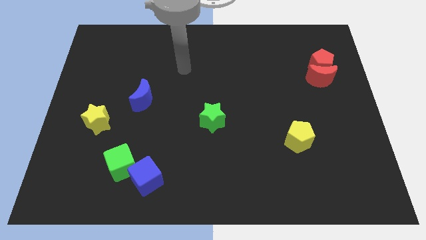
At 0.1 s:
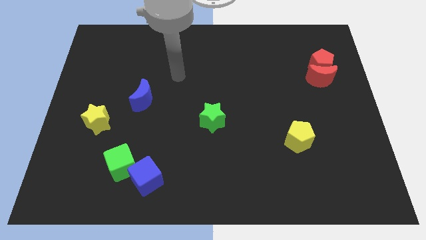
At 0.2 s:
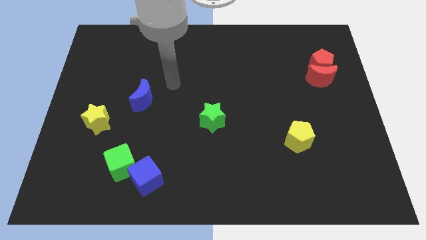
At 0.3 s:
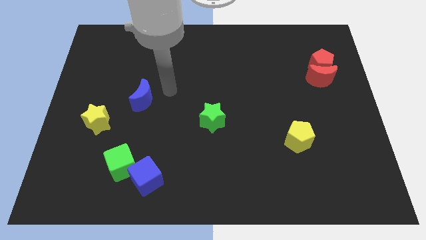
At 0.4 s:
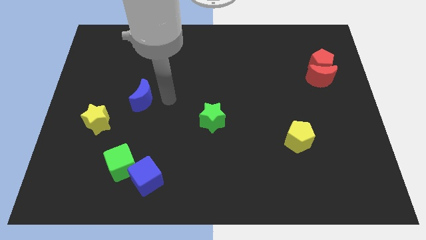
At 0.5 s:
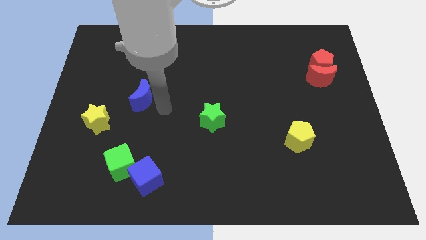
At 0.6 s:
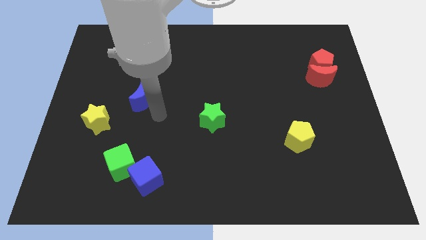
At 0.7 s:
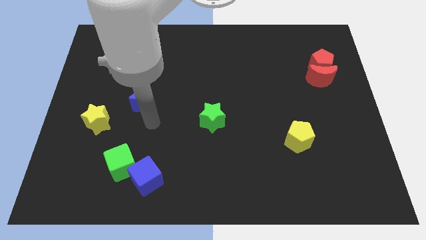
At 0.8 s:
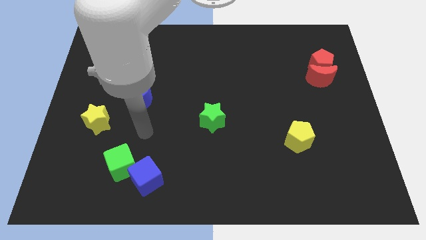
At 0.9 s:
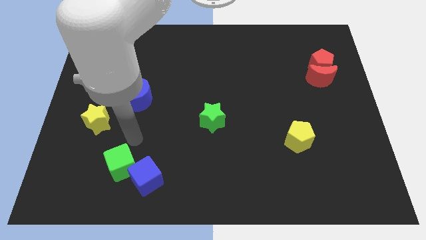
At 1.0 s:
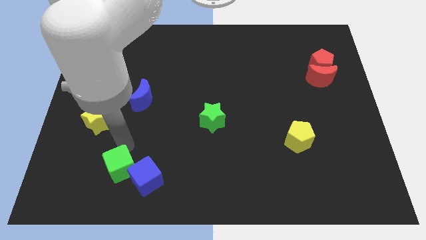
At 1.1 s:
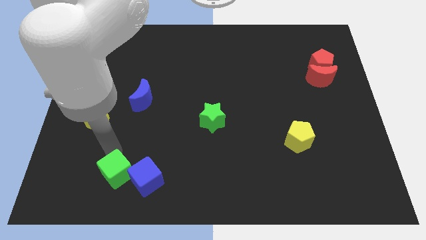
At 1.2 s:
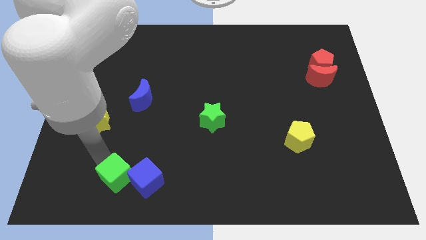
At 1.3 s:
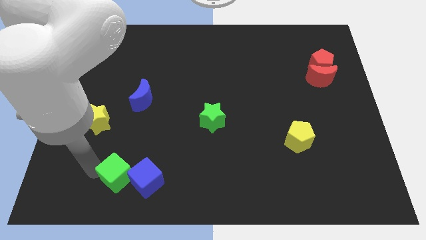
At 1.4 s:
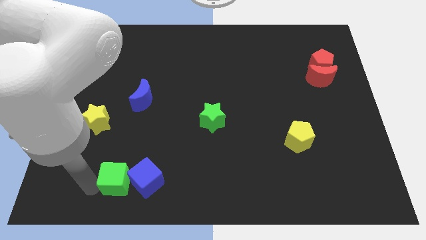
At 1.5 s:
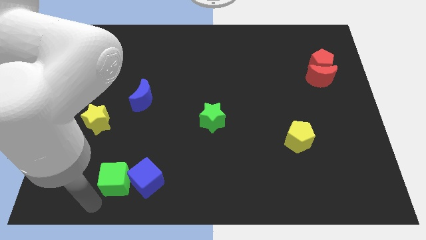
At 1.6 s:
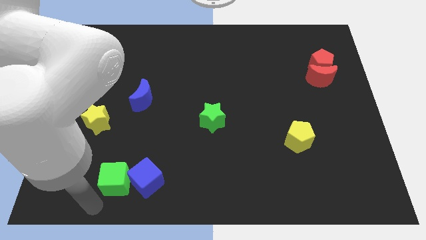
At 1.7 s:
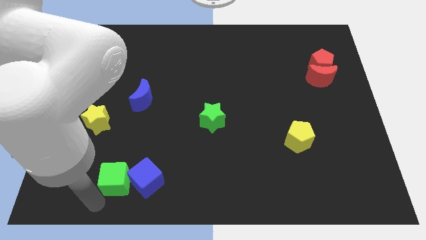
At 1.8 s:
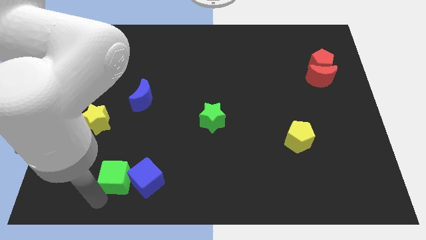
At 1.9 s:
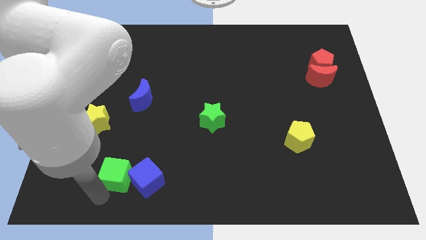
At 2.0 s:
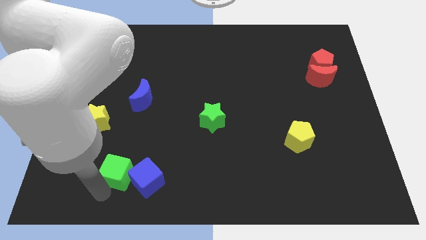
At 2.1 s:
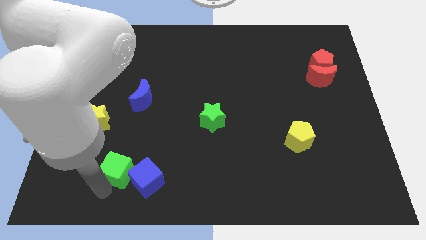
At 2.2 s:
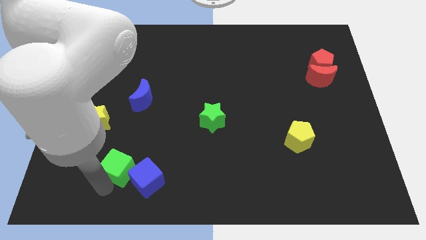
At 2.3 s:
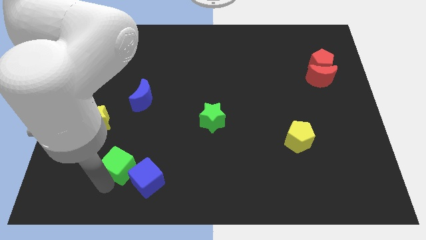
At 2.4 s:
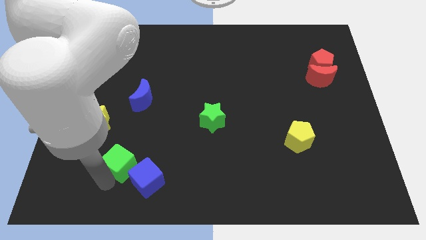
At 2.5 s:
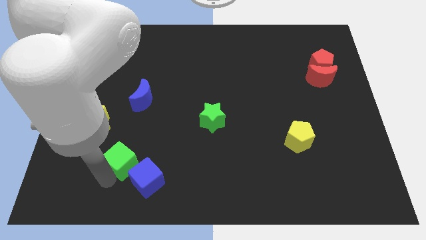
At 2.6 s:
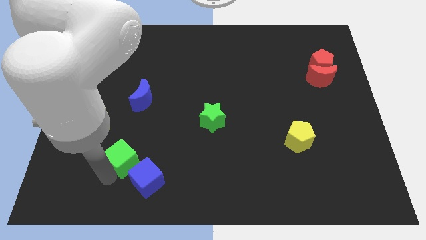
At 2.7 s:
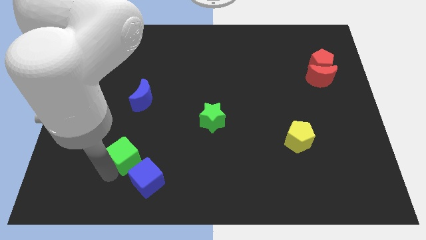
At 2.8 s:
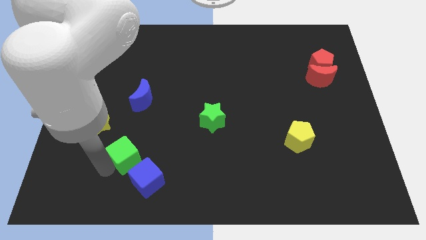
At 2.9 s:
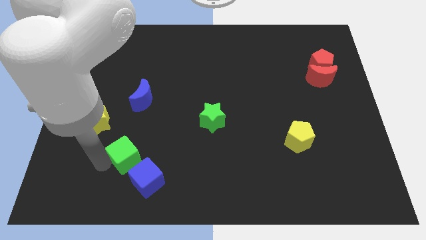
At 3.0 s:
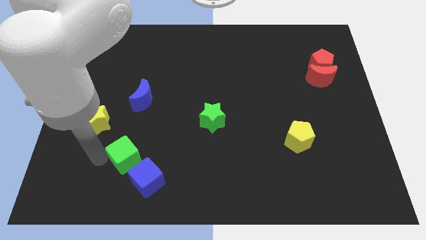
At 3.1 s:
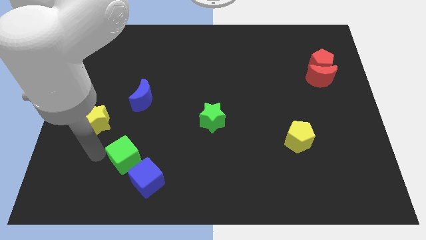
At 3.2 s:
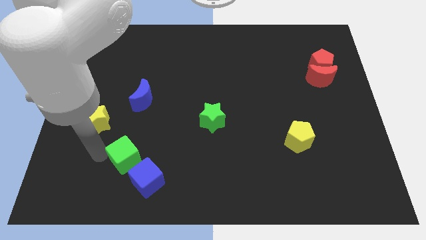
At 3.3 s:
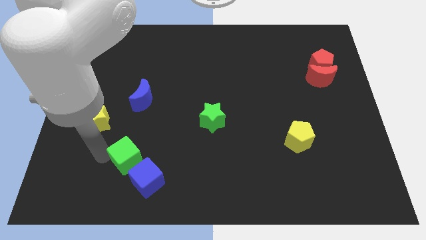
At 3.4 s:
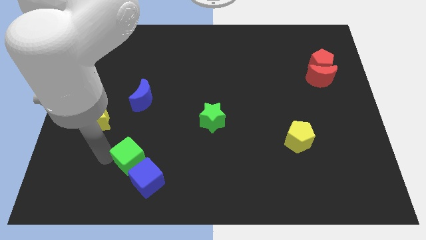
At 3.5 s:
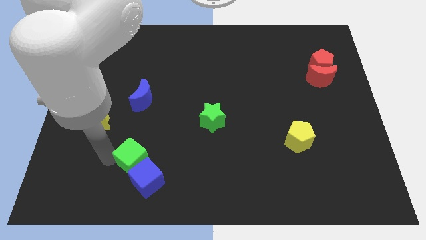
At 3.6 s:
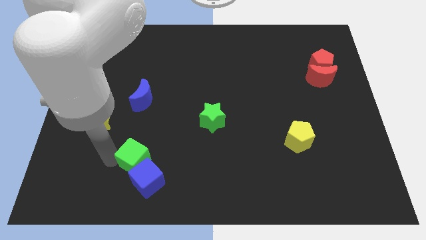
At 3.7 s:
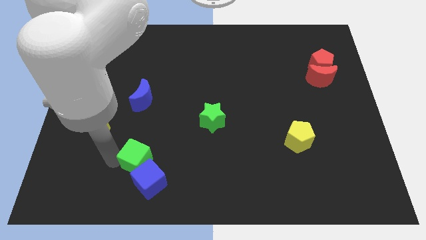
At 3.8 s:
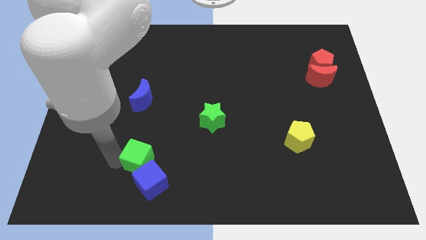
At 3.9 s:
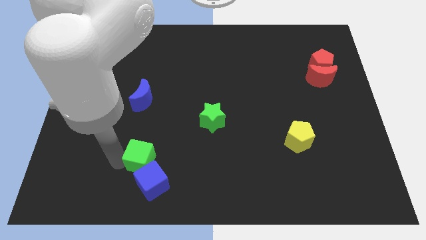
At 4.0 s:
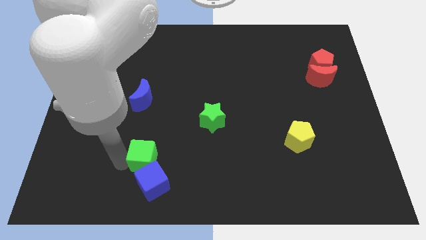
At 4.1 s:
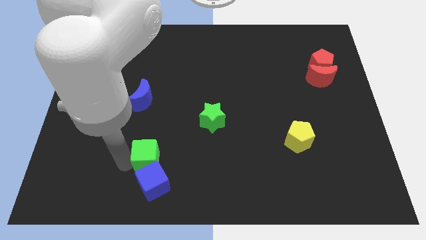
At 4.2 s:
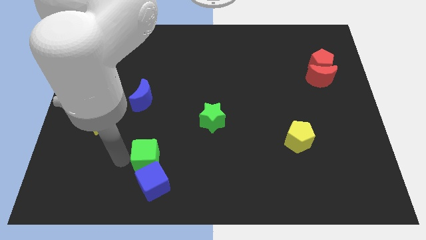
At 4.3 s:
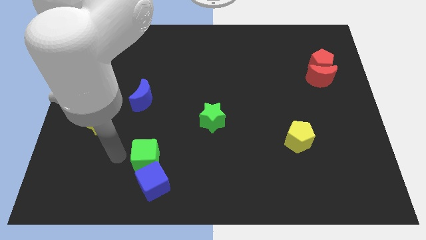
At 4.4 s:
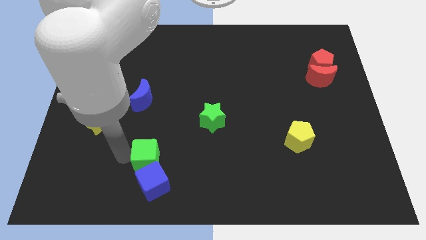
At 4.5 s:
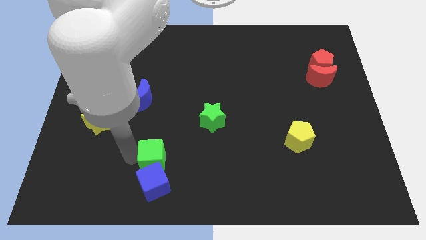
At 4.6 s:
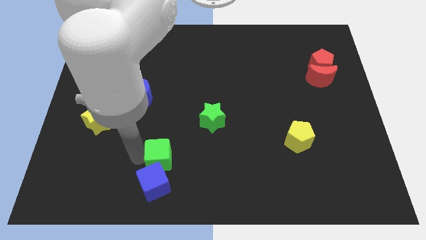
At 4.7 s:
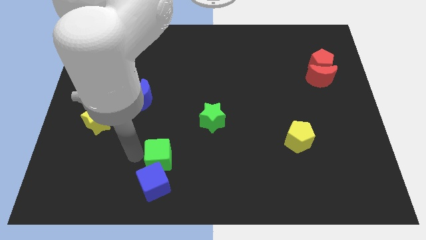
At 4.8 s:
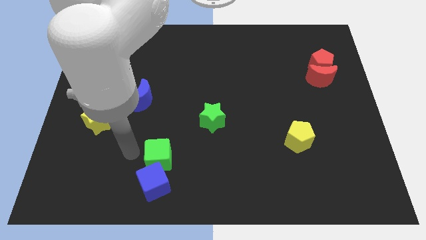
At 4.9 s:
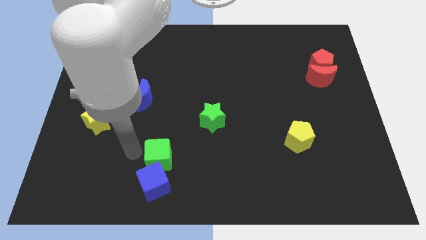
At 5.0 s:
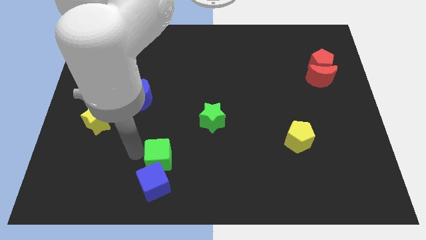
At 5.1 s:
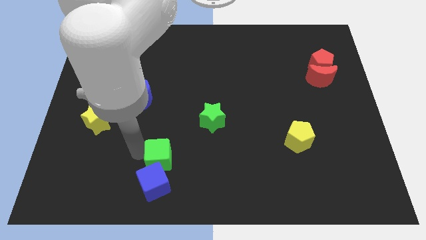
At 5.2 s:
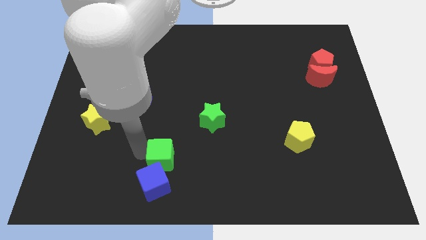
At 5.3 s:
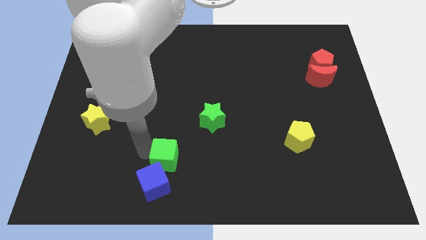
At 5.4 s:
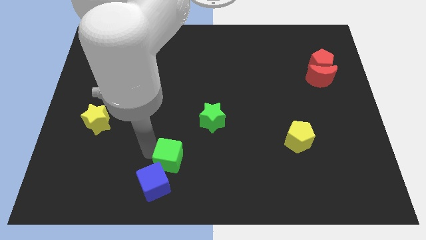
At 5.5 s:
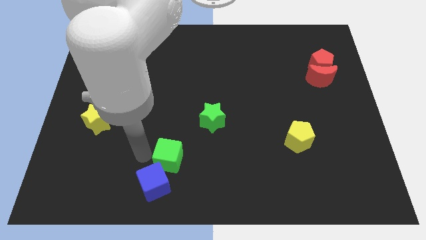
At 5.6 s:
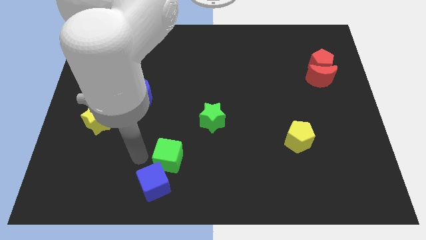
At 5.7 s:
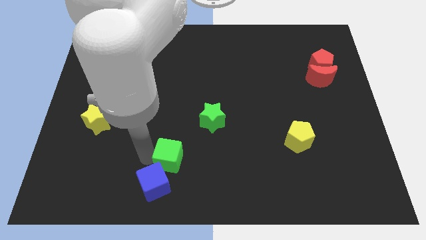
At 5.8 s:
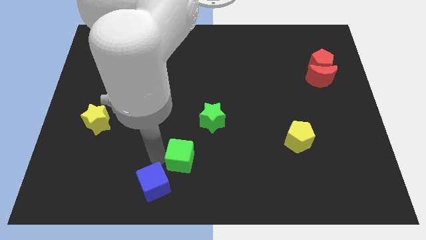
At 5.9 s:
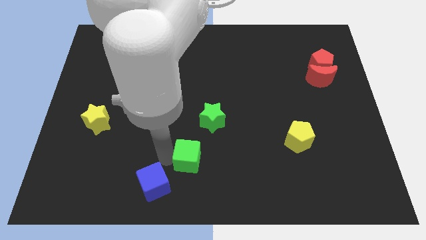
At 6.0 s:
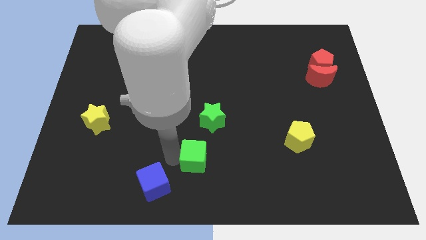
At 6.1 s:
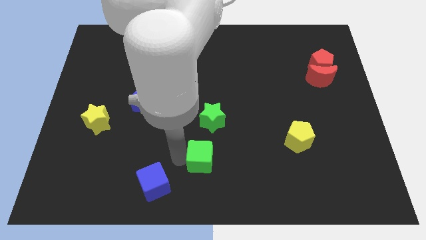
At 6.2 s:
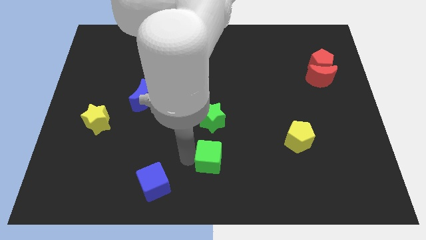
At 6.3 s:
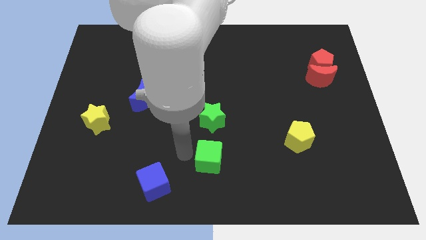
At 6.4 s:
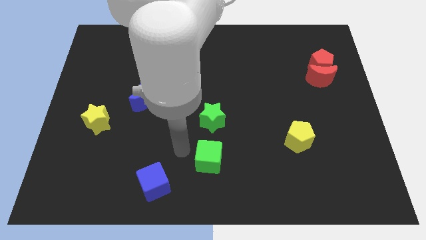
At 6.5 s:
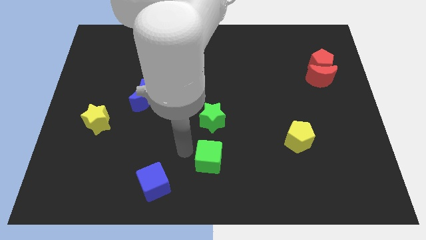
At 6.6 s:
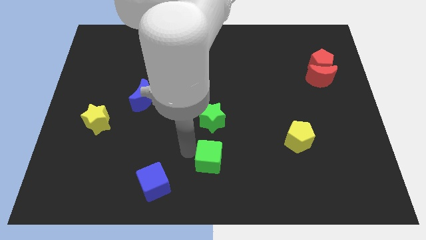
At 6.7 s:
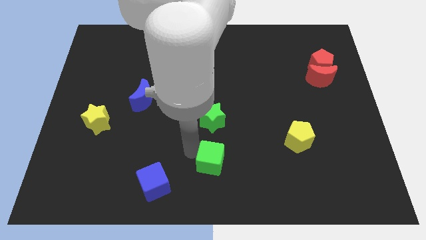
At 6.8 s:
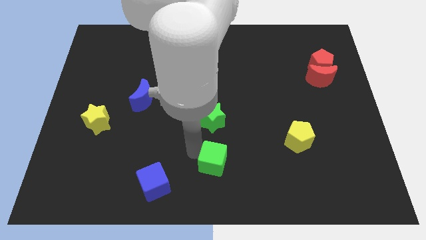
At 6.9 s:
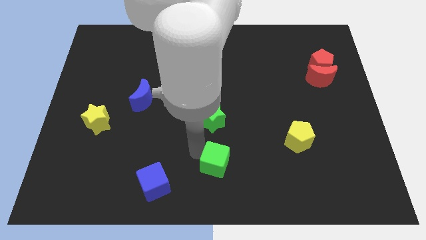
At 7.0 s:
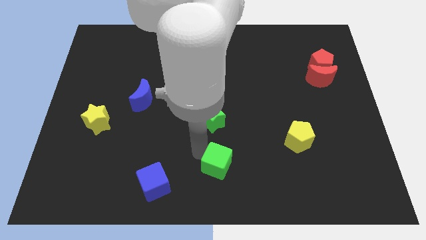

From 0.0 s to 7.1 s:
push the green cube to the right

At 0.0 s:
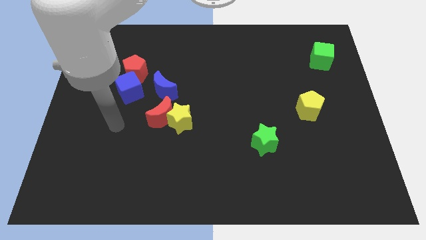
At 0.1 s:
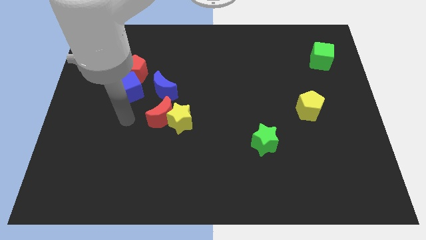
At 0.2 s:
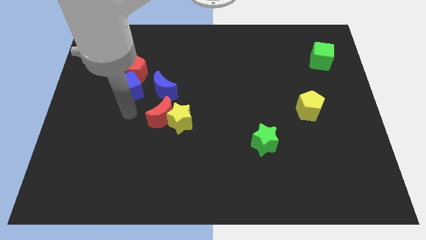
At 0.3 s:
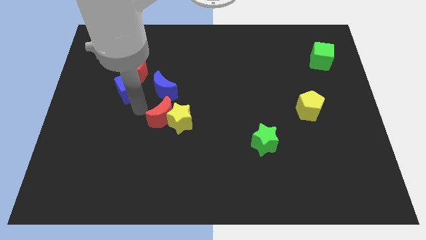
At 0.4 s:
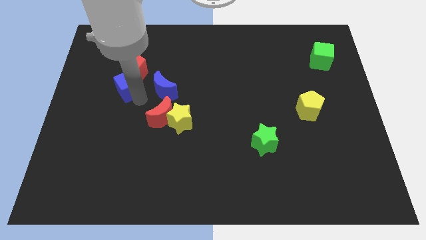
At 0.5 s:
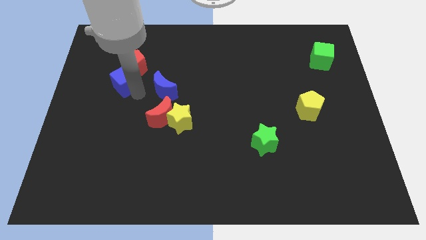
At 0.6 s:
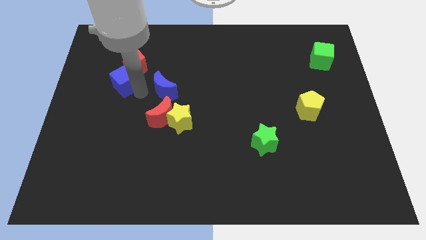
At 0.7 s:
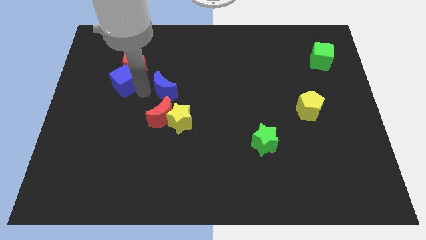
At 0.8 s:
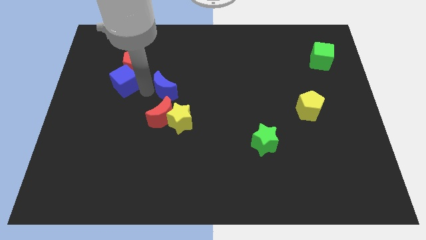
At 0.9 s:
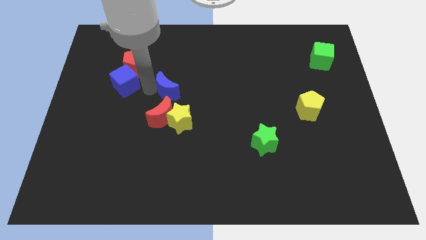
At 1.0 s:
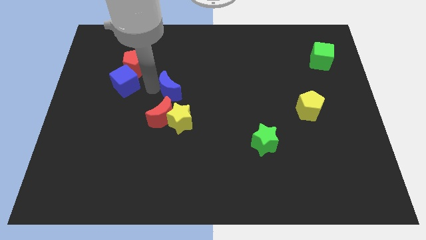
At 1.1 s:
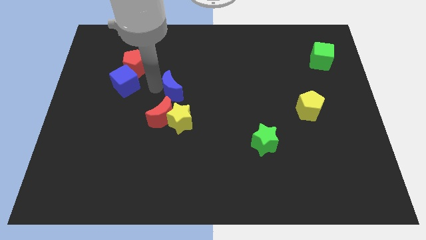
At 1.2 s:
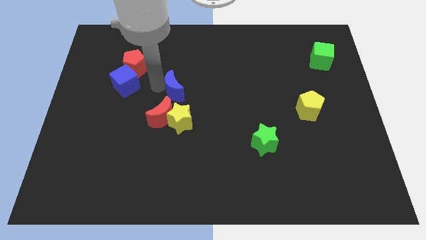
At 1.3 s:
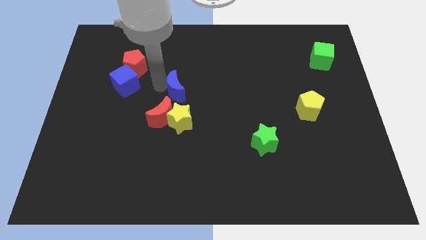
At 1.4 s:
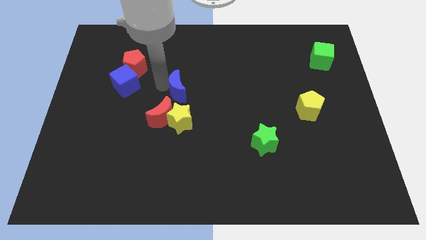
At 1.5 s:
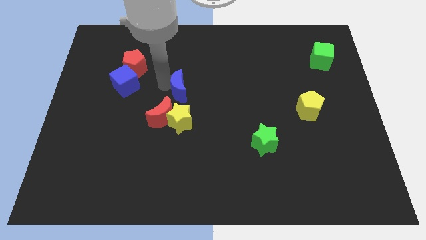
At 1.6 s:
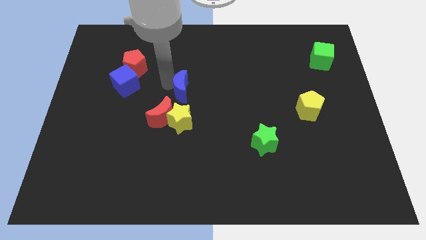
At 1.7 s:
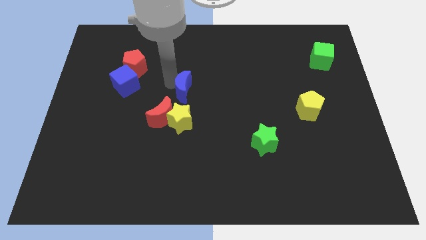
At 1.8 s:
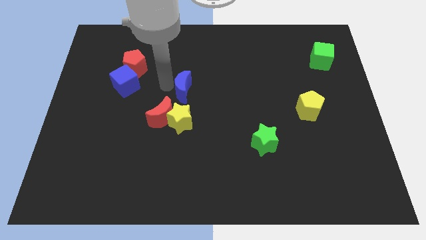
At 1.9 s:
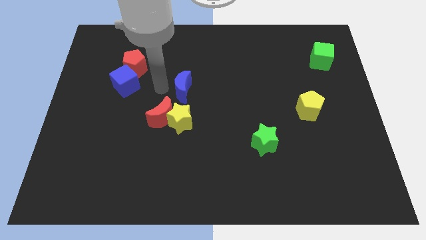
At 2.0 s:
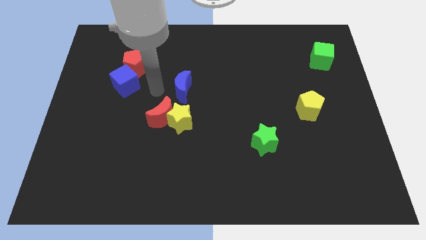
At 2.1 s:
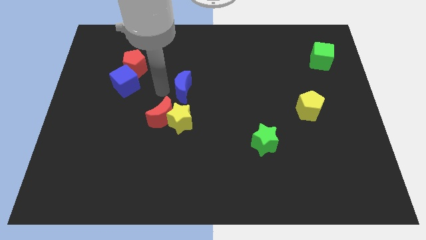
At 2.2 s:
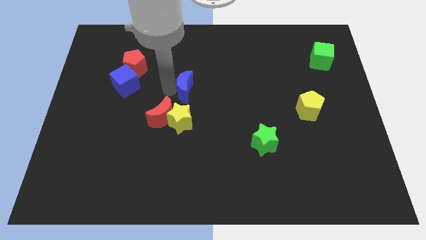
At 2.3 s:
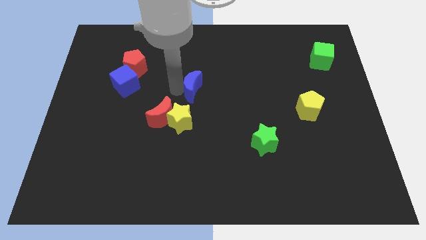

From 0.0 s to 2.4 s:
push the blue moon right a little bit
